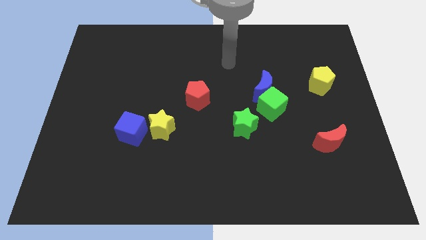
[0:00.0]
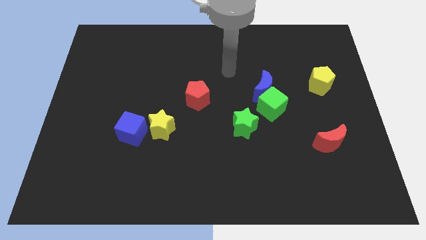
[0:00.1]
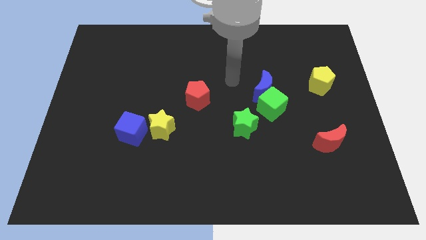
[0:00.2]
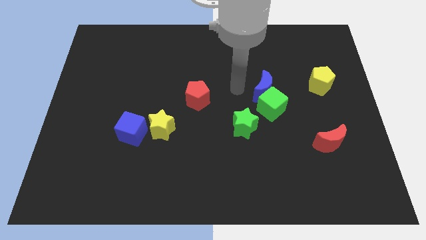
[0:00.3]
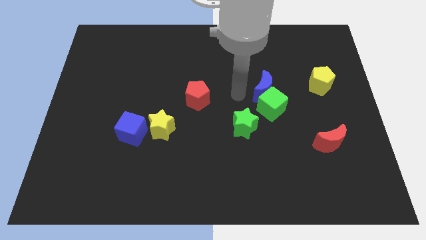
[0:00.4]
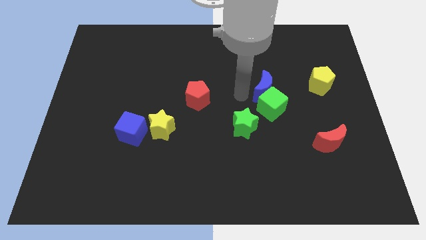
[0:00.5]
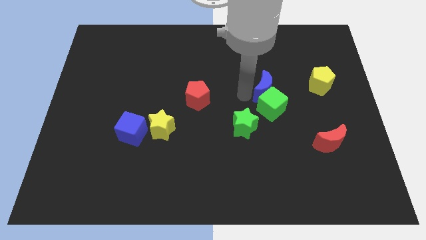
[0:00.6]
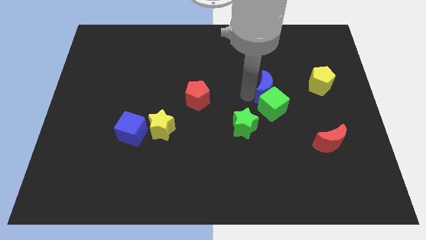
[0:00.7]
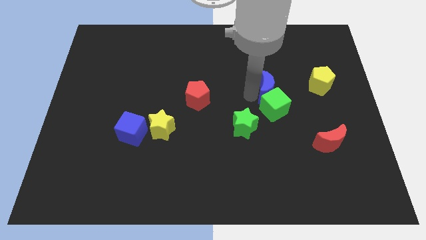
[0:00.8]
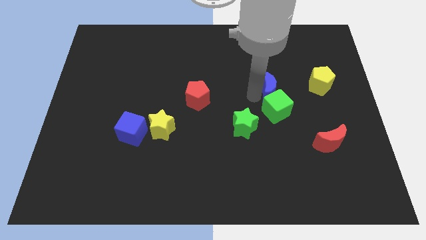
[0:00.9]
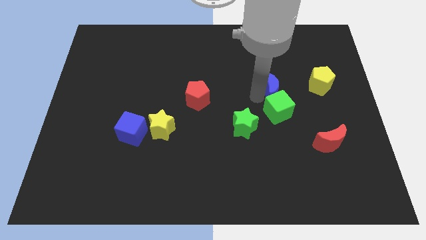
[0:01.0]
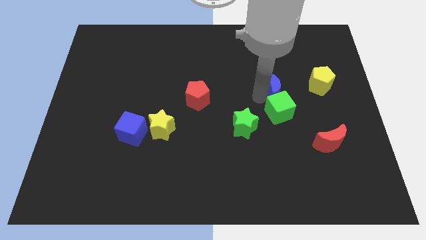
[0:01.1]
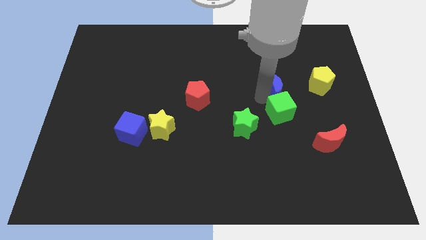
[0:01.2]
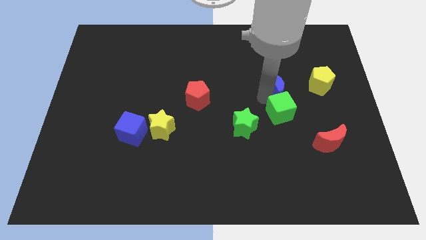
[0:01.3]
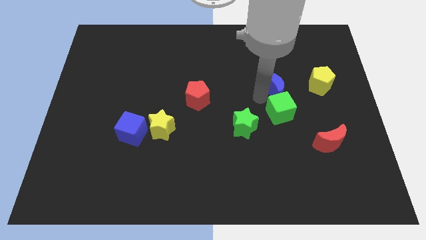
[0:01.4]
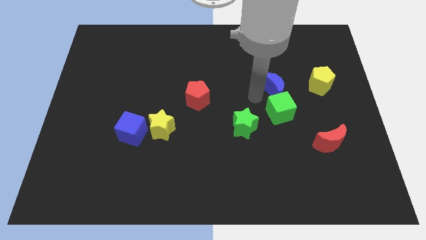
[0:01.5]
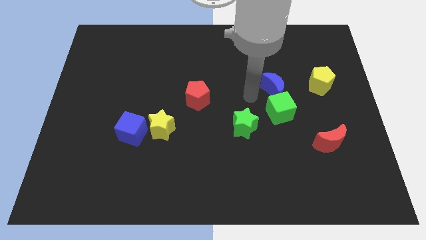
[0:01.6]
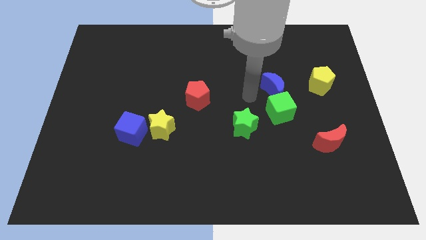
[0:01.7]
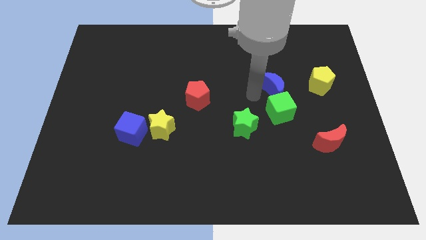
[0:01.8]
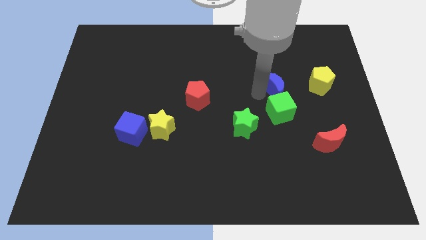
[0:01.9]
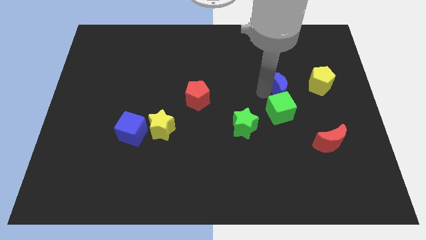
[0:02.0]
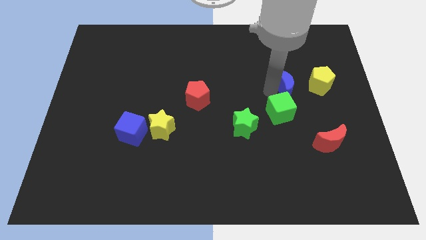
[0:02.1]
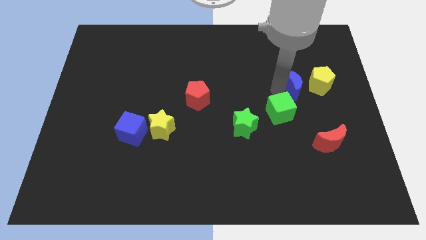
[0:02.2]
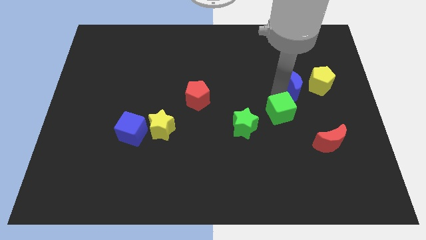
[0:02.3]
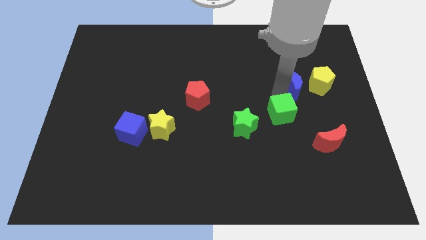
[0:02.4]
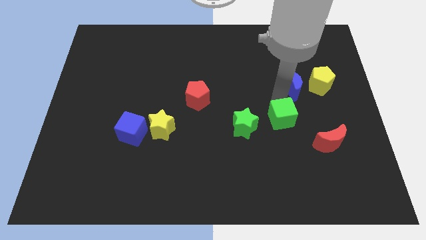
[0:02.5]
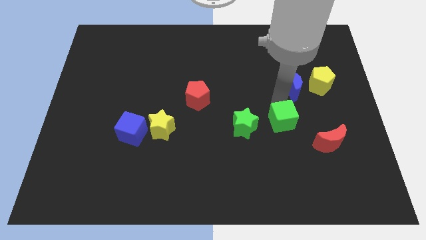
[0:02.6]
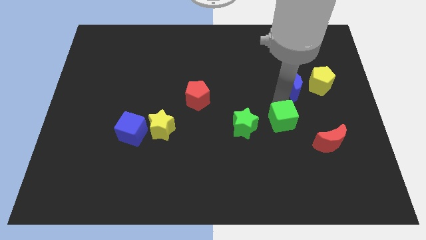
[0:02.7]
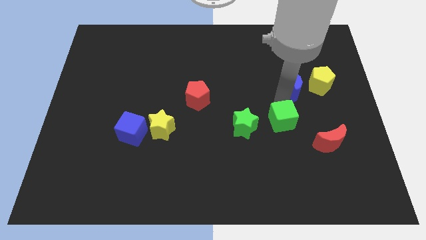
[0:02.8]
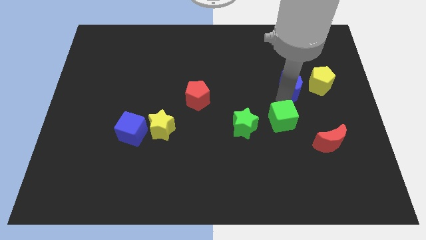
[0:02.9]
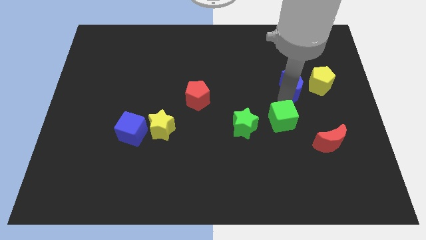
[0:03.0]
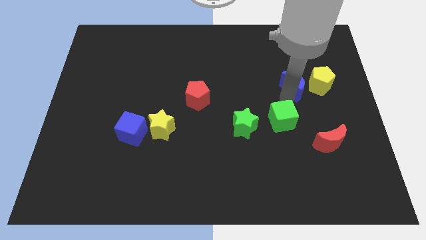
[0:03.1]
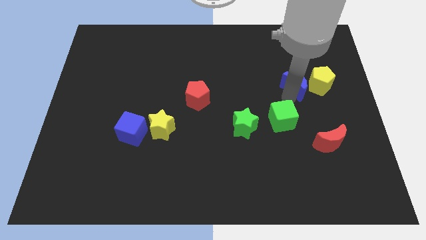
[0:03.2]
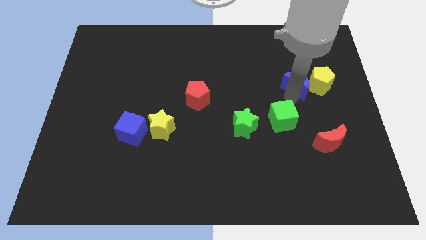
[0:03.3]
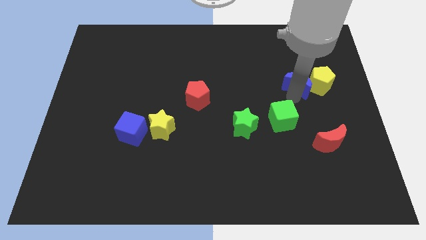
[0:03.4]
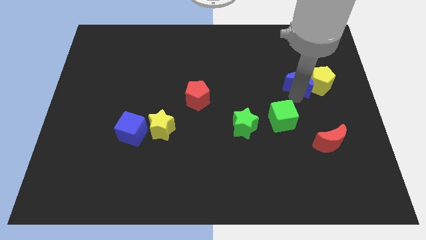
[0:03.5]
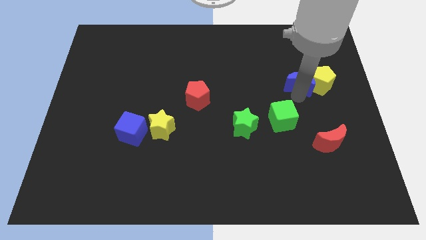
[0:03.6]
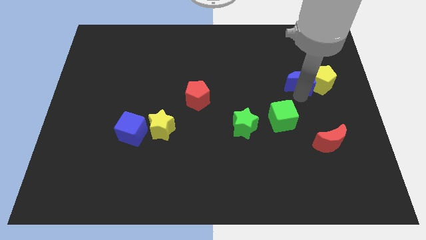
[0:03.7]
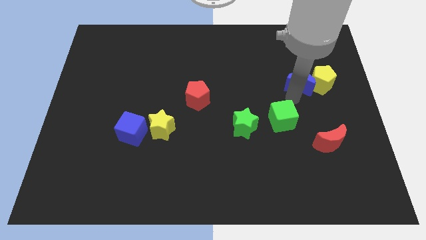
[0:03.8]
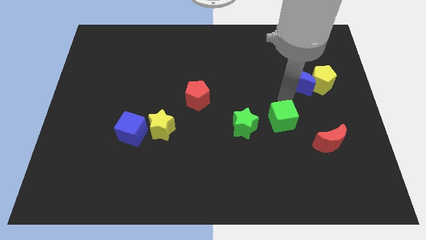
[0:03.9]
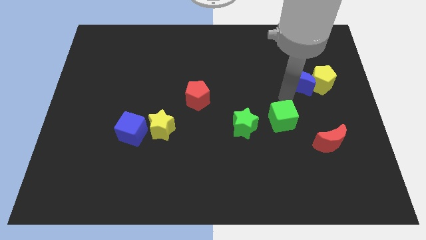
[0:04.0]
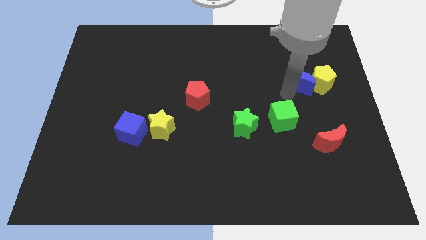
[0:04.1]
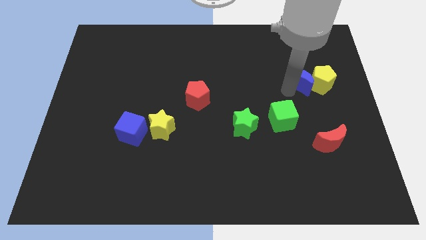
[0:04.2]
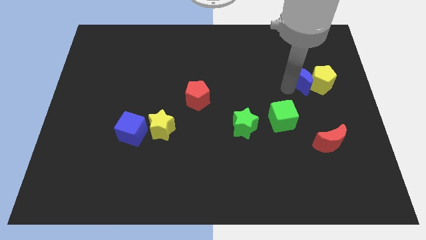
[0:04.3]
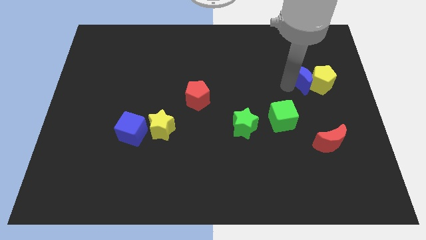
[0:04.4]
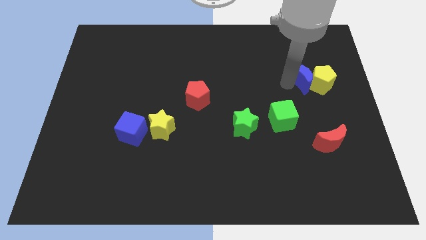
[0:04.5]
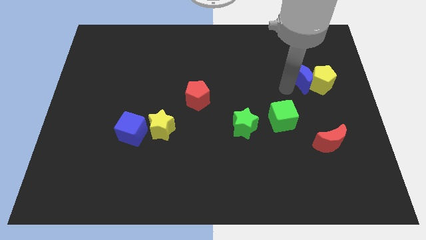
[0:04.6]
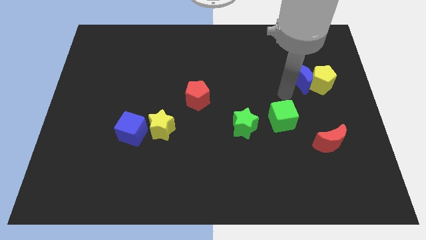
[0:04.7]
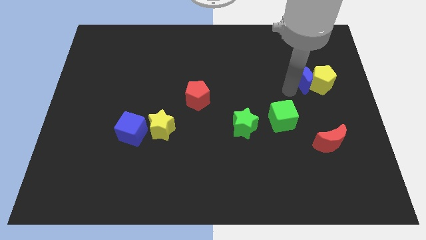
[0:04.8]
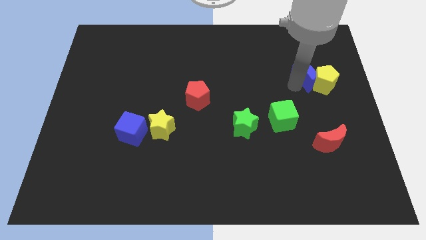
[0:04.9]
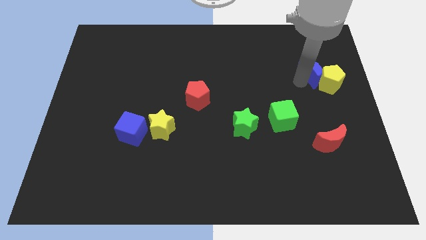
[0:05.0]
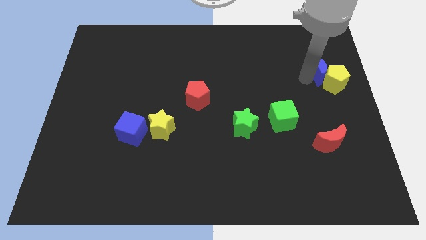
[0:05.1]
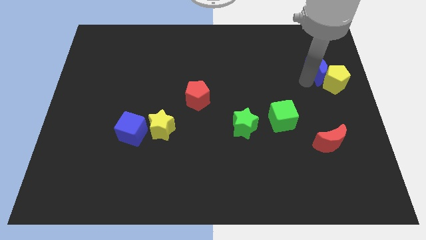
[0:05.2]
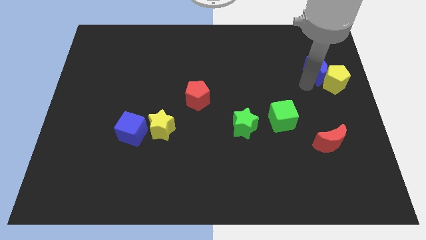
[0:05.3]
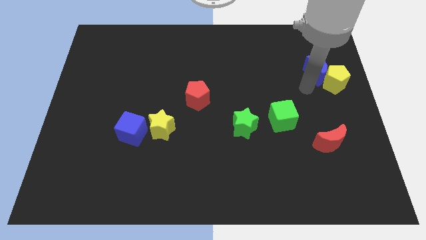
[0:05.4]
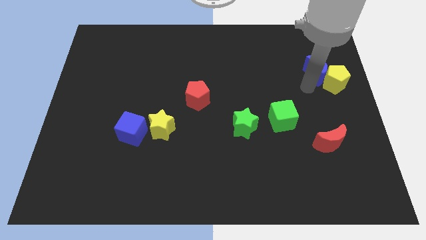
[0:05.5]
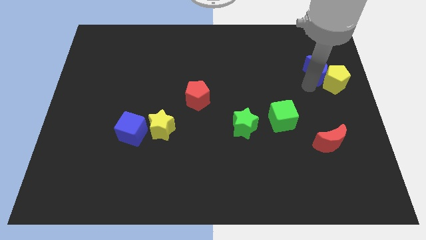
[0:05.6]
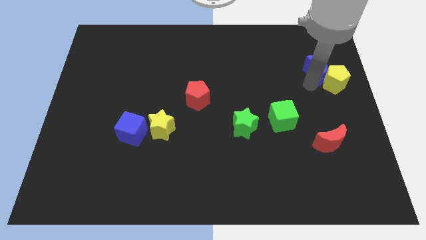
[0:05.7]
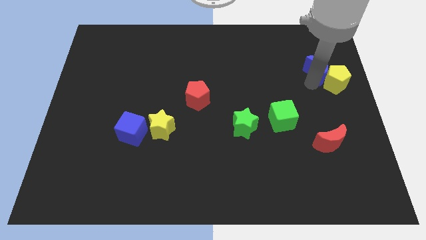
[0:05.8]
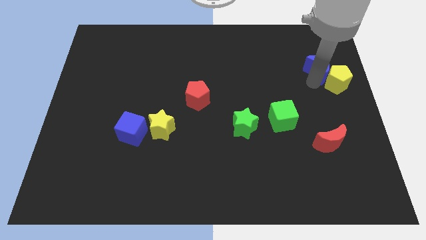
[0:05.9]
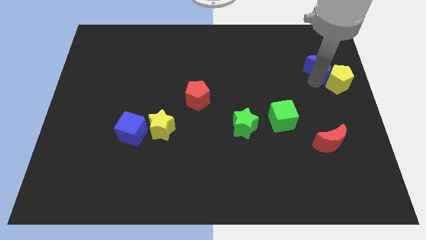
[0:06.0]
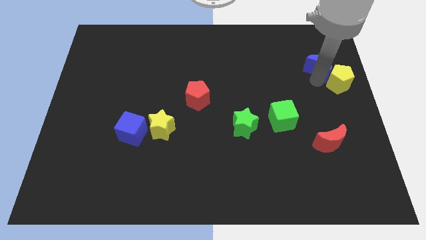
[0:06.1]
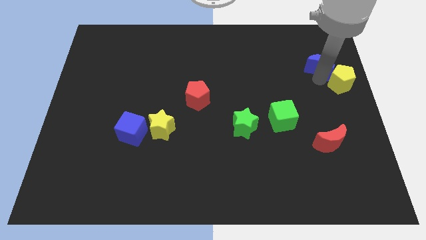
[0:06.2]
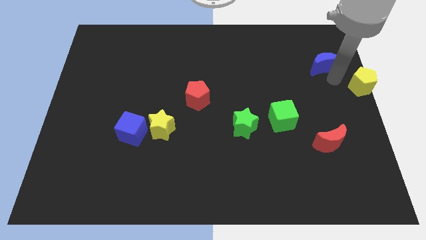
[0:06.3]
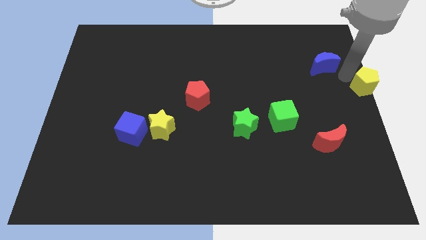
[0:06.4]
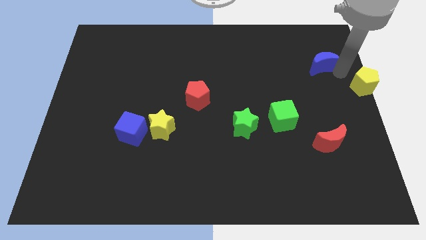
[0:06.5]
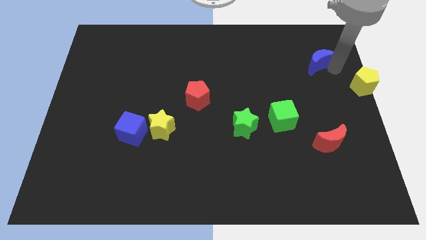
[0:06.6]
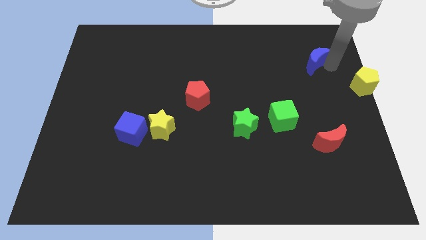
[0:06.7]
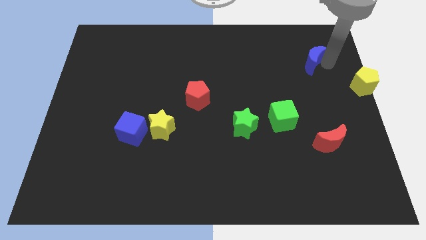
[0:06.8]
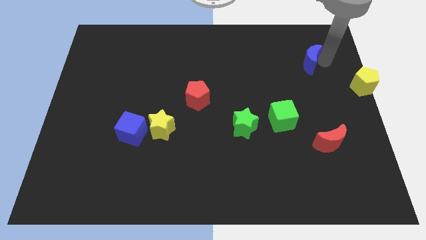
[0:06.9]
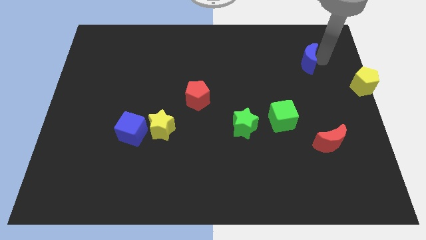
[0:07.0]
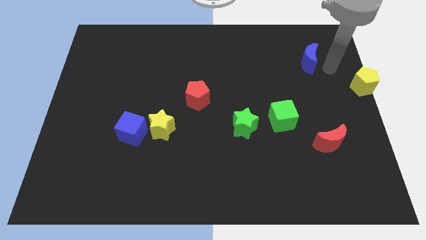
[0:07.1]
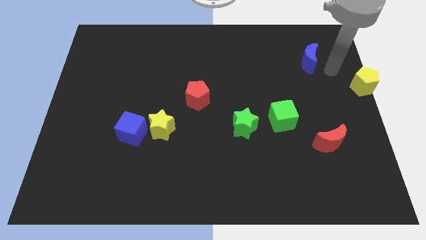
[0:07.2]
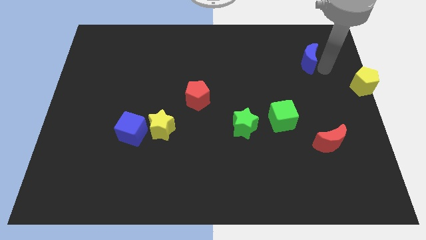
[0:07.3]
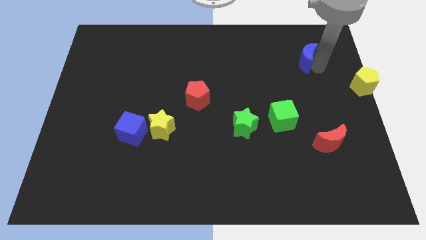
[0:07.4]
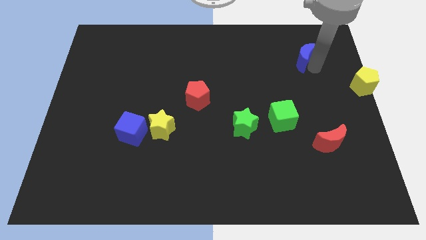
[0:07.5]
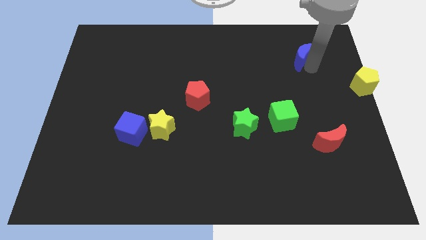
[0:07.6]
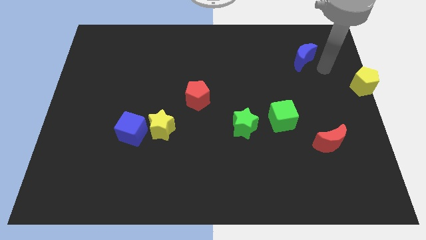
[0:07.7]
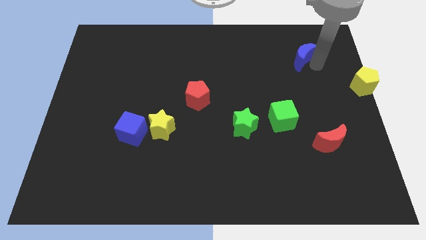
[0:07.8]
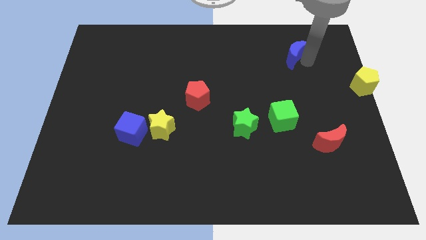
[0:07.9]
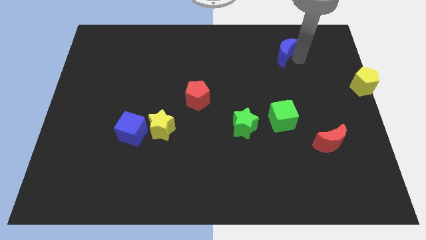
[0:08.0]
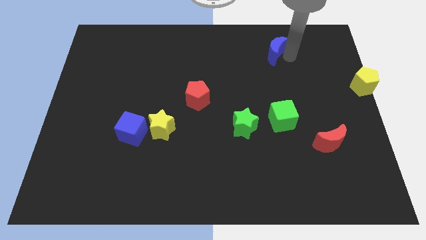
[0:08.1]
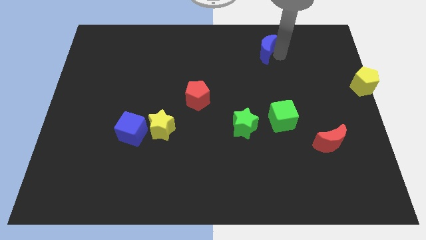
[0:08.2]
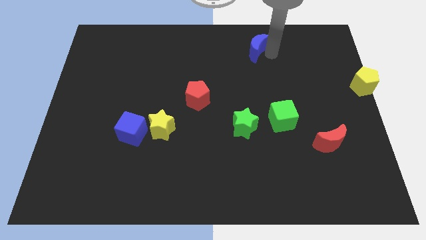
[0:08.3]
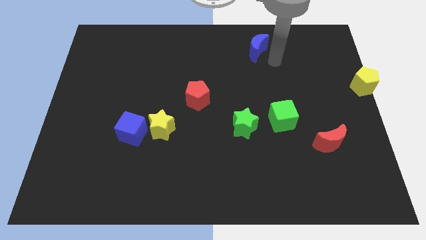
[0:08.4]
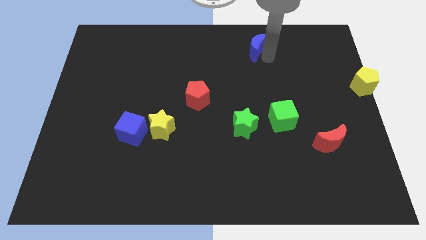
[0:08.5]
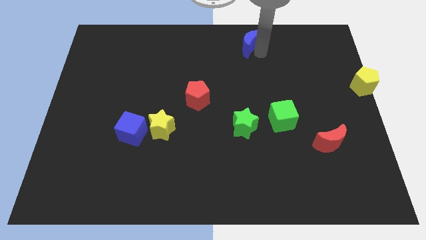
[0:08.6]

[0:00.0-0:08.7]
move the blue moon to the towards your base
